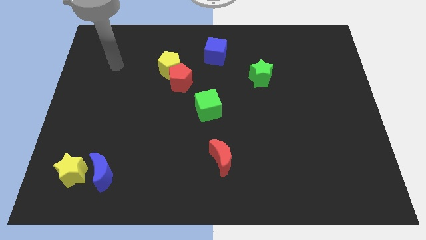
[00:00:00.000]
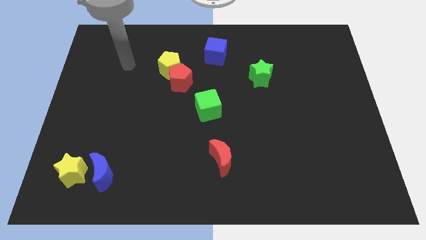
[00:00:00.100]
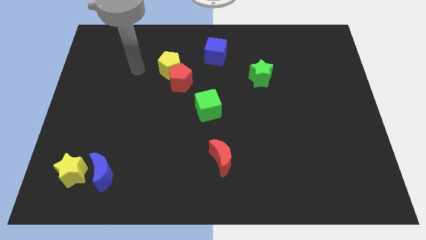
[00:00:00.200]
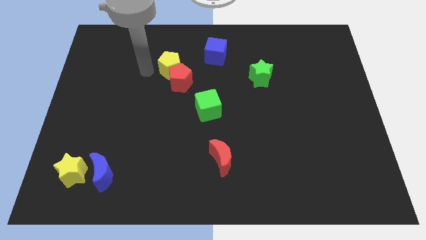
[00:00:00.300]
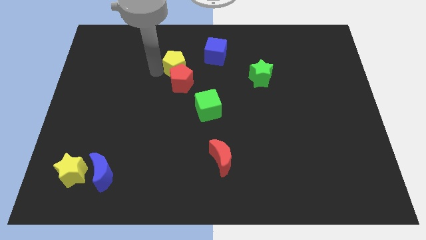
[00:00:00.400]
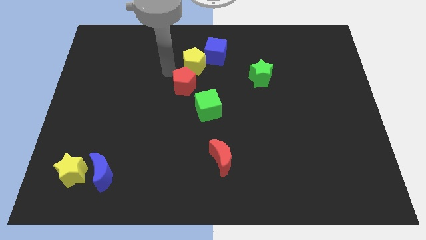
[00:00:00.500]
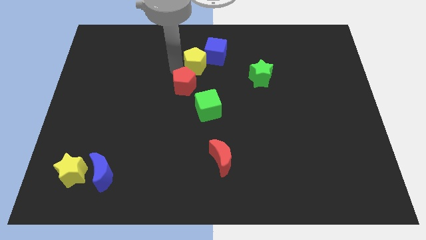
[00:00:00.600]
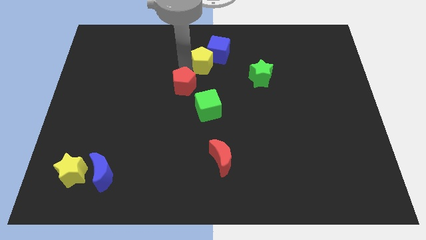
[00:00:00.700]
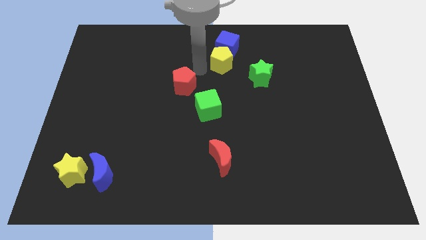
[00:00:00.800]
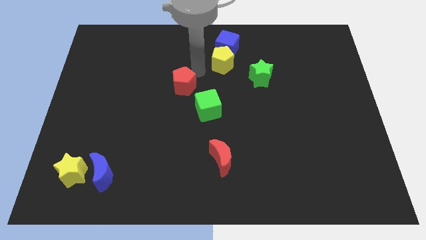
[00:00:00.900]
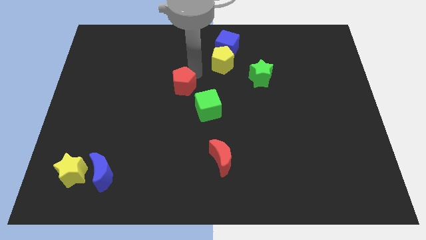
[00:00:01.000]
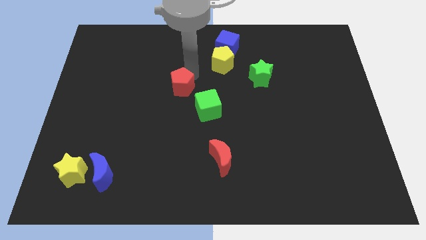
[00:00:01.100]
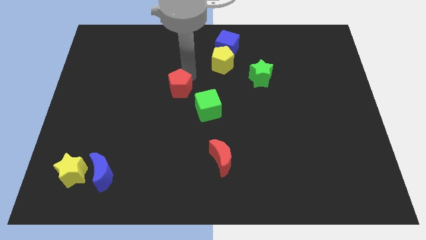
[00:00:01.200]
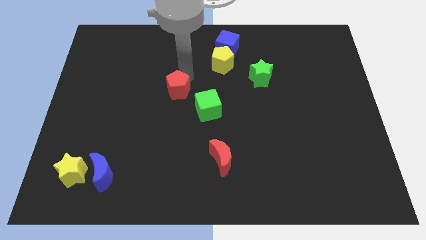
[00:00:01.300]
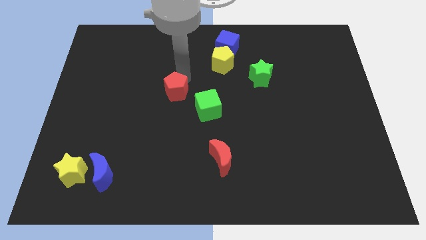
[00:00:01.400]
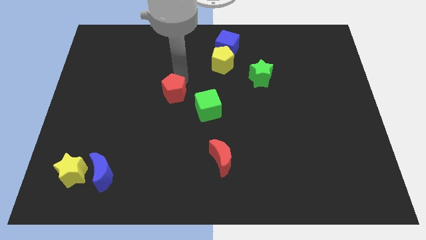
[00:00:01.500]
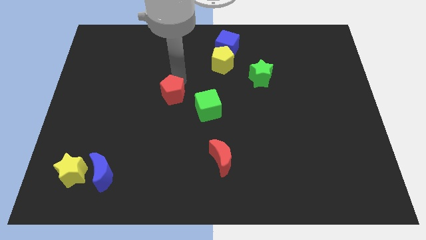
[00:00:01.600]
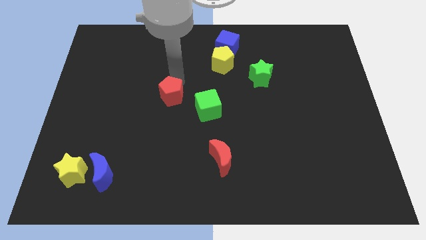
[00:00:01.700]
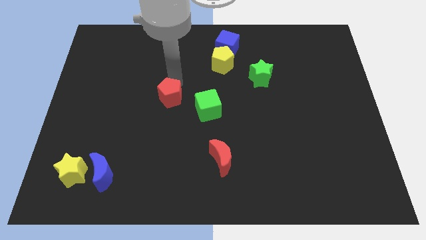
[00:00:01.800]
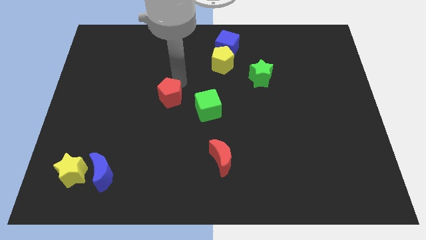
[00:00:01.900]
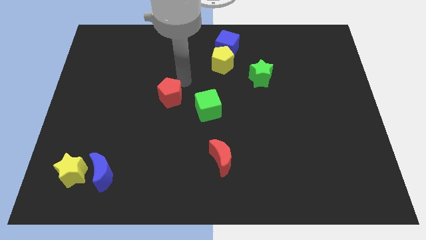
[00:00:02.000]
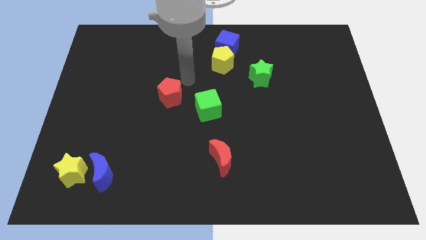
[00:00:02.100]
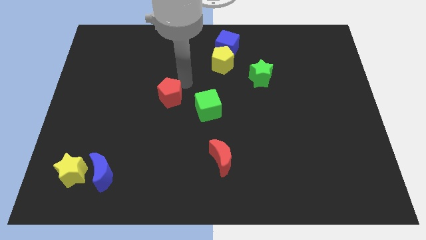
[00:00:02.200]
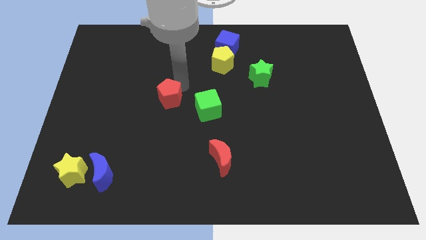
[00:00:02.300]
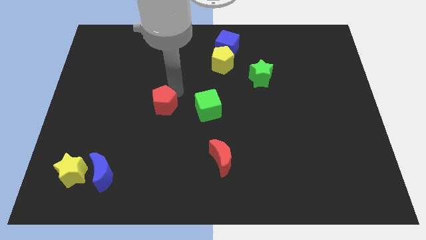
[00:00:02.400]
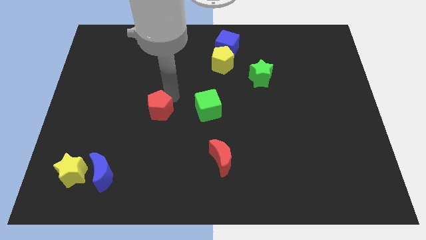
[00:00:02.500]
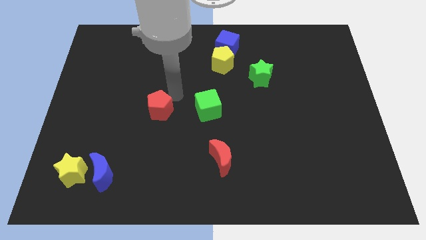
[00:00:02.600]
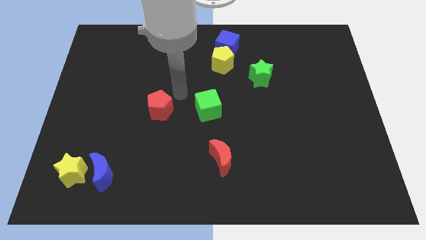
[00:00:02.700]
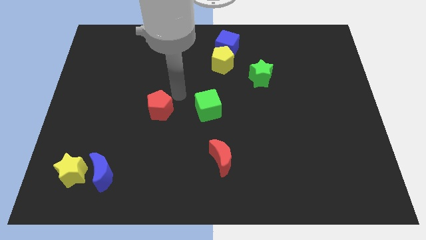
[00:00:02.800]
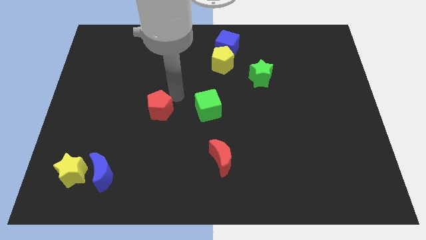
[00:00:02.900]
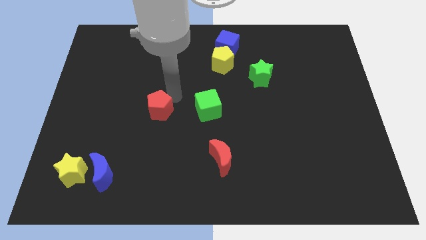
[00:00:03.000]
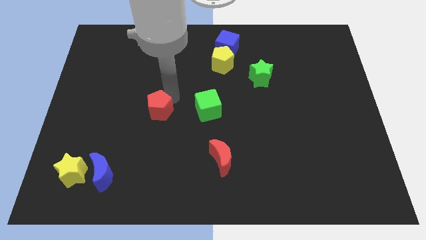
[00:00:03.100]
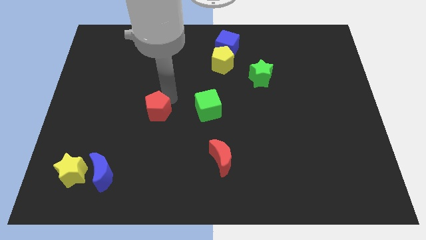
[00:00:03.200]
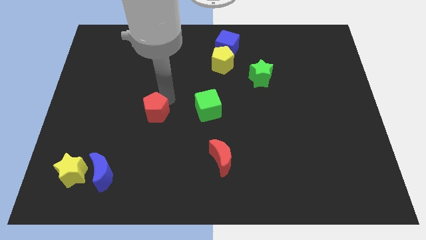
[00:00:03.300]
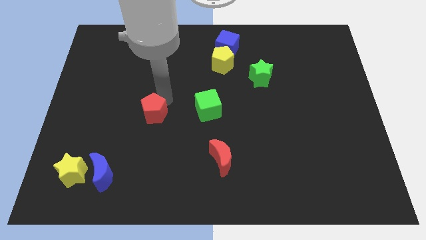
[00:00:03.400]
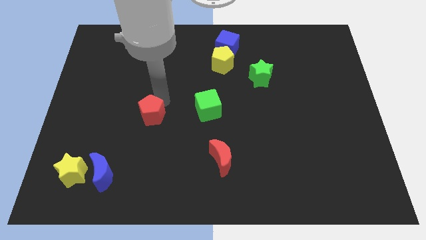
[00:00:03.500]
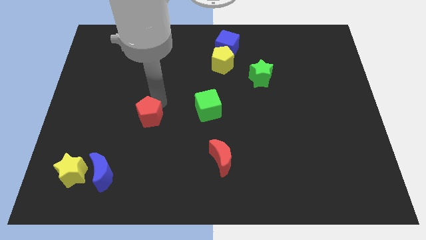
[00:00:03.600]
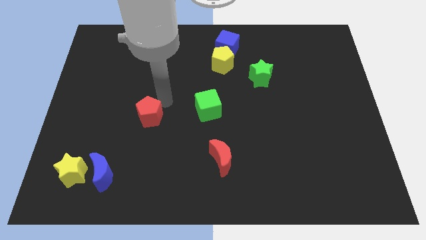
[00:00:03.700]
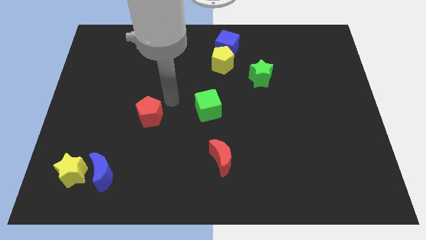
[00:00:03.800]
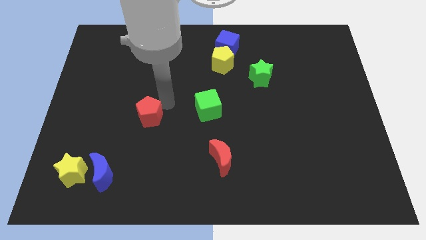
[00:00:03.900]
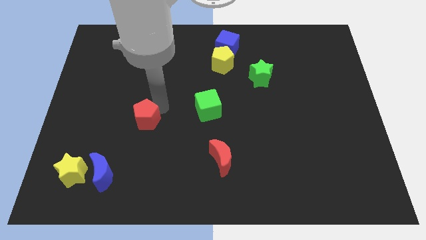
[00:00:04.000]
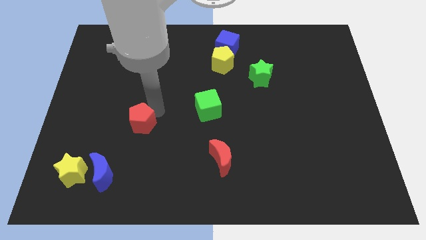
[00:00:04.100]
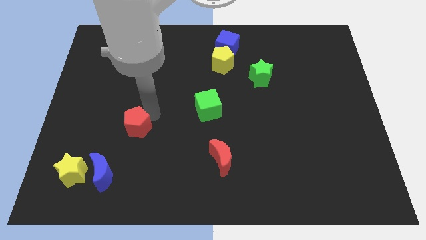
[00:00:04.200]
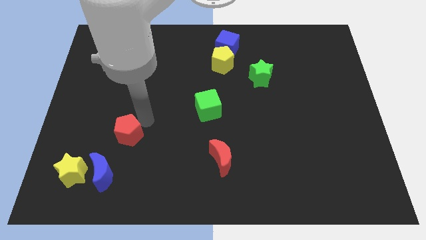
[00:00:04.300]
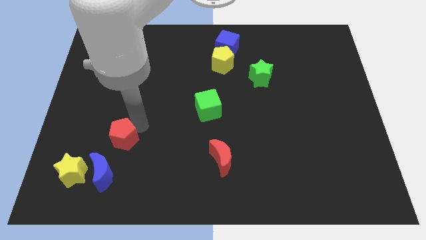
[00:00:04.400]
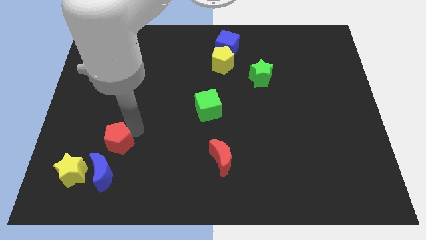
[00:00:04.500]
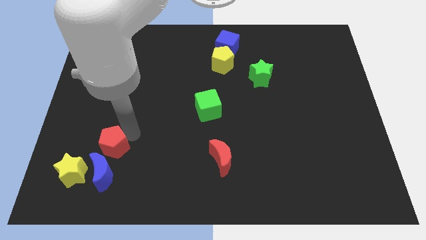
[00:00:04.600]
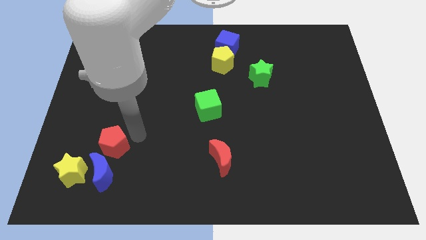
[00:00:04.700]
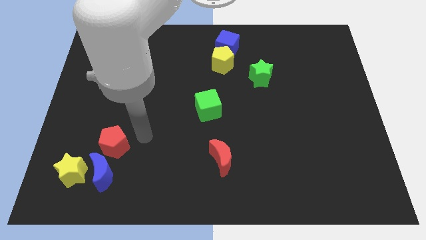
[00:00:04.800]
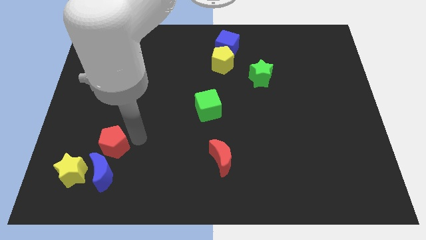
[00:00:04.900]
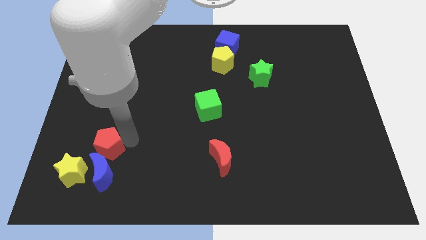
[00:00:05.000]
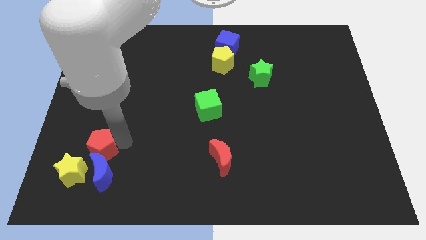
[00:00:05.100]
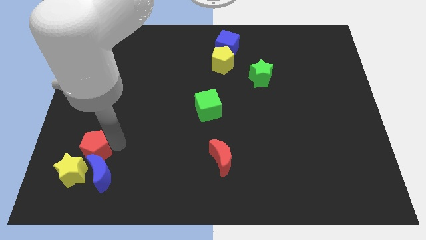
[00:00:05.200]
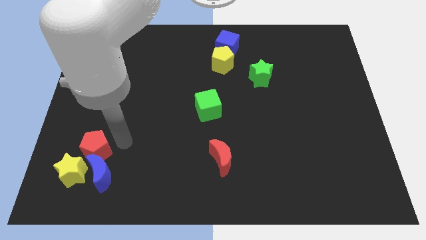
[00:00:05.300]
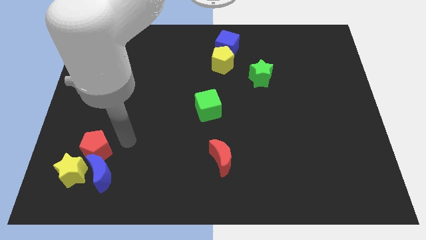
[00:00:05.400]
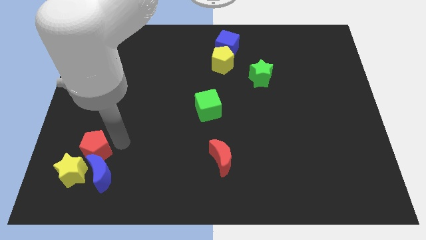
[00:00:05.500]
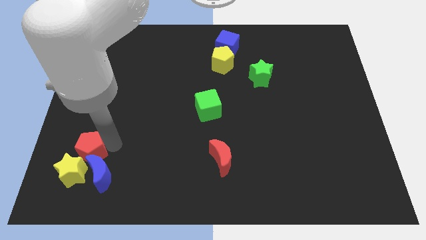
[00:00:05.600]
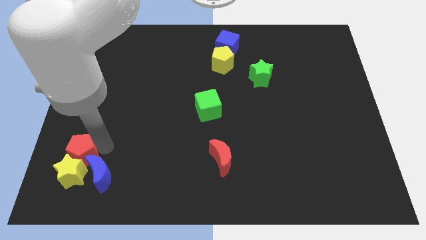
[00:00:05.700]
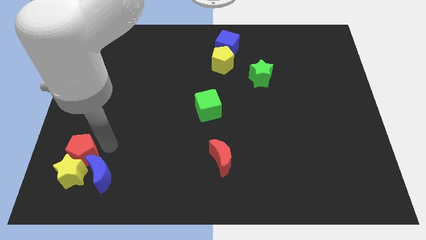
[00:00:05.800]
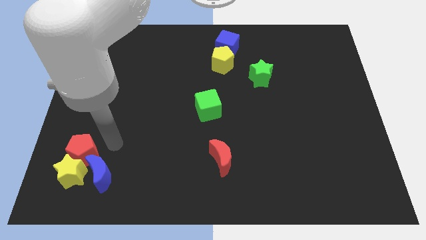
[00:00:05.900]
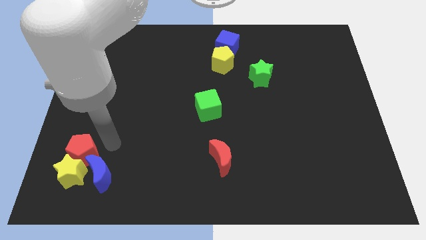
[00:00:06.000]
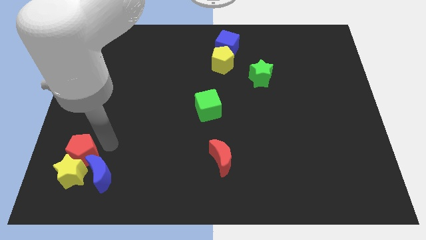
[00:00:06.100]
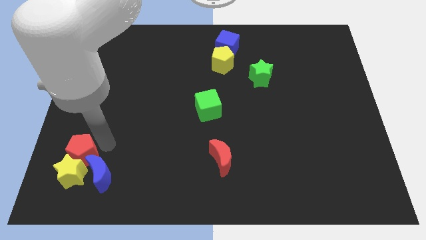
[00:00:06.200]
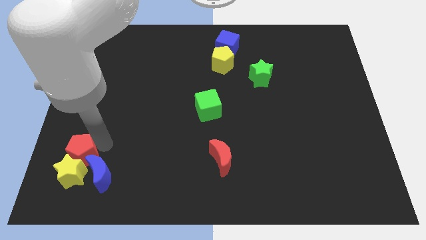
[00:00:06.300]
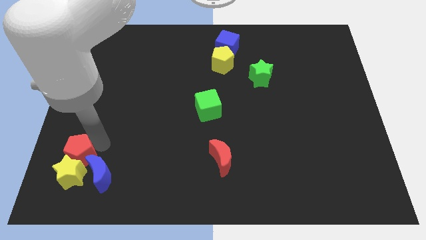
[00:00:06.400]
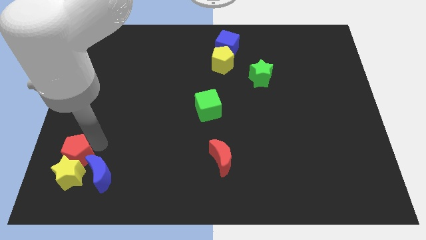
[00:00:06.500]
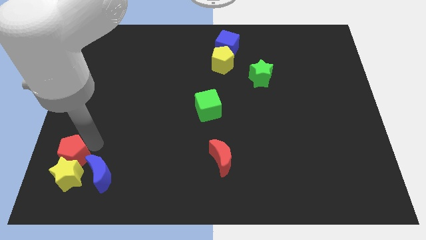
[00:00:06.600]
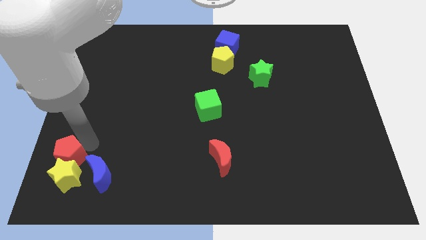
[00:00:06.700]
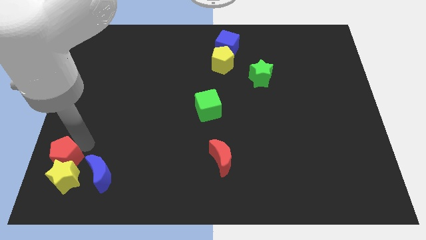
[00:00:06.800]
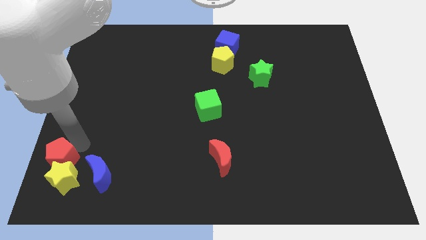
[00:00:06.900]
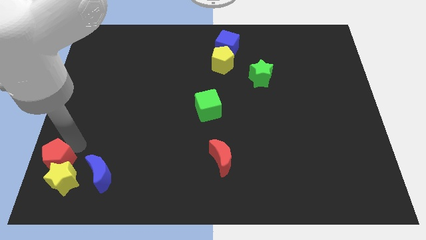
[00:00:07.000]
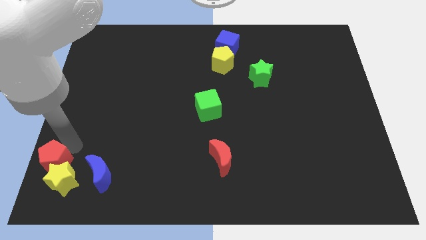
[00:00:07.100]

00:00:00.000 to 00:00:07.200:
move the red pentagon to the lower left corner
